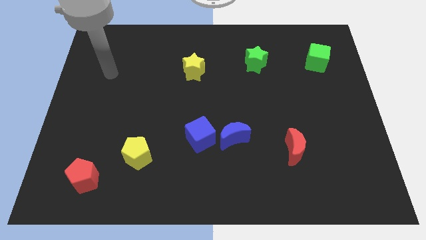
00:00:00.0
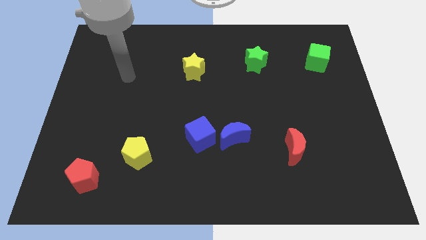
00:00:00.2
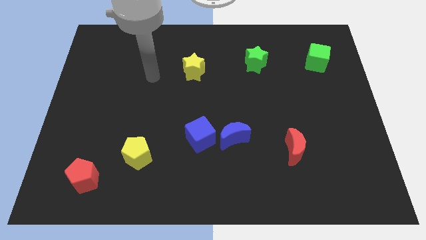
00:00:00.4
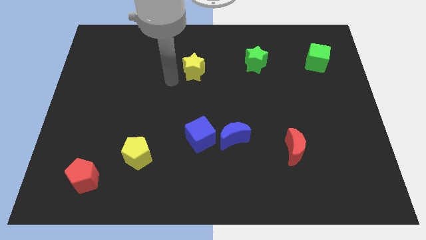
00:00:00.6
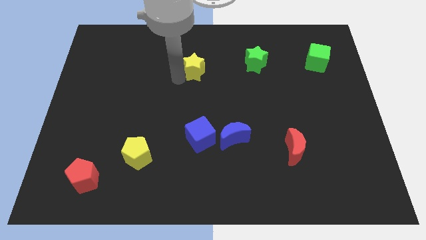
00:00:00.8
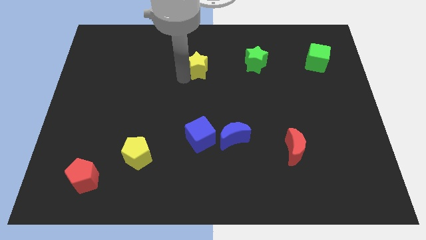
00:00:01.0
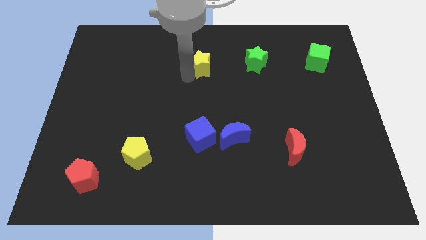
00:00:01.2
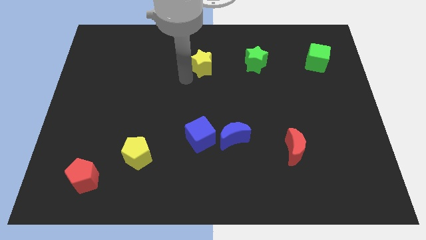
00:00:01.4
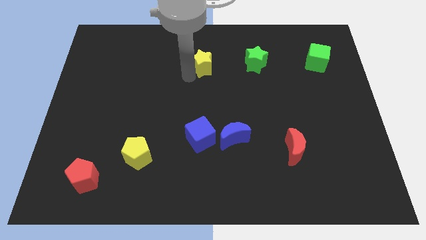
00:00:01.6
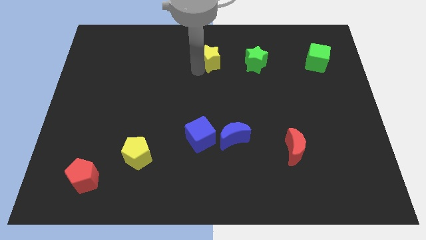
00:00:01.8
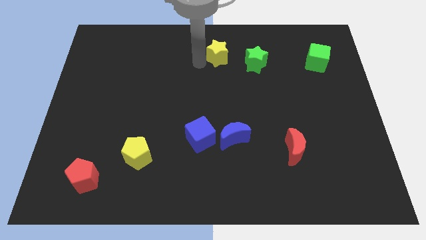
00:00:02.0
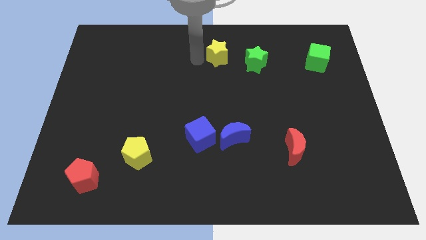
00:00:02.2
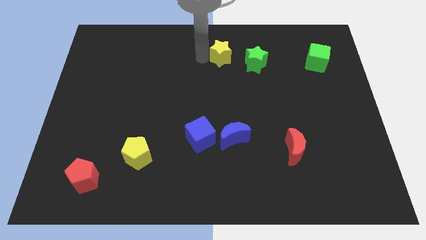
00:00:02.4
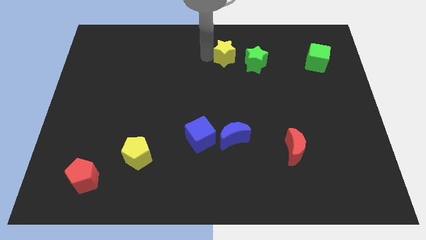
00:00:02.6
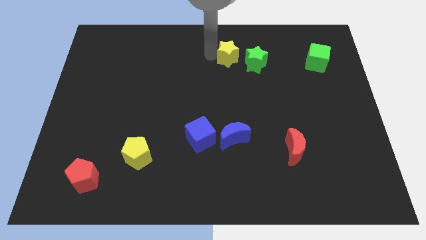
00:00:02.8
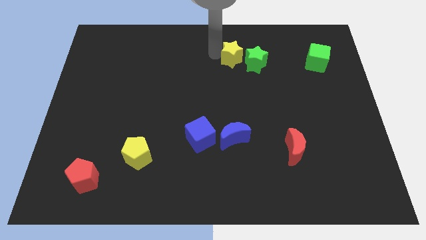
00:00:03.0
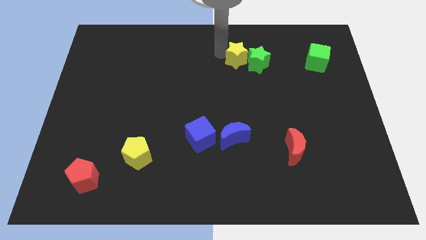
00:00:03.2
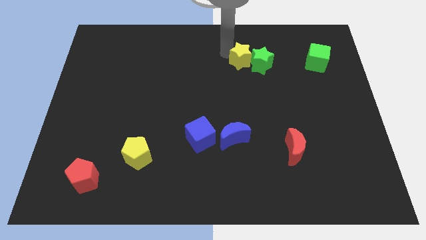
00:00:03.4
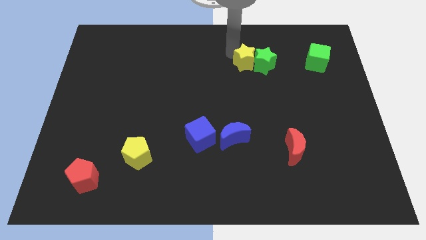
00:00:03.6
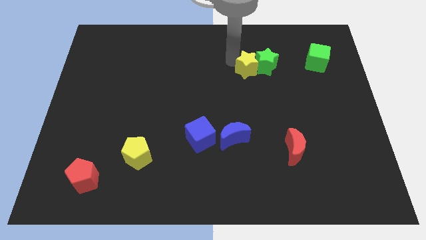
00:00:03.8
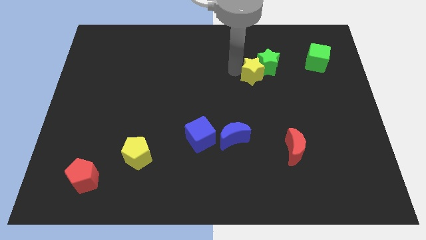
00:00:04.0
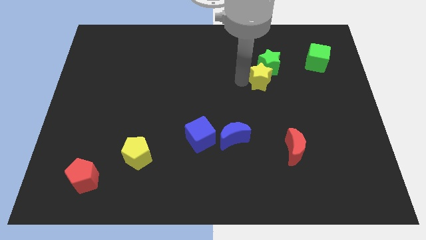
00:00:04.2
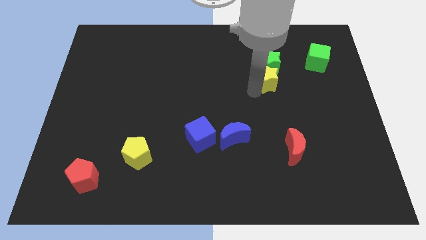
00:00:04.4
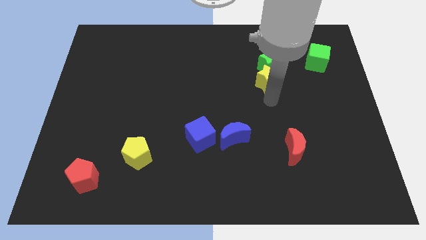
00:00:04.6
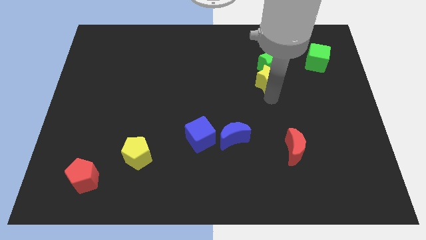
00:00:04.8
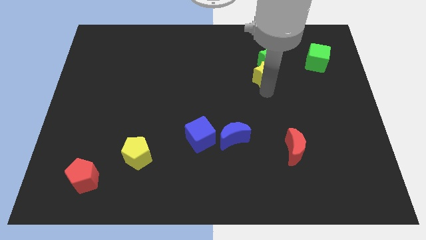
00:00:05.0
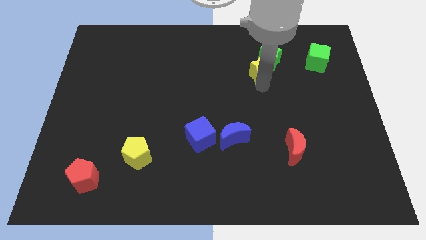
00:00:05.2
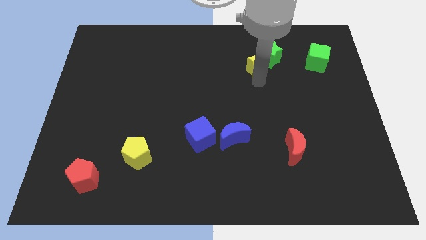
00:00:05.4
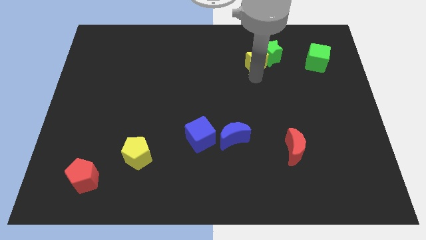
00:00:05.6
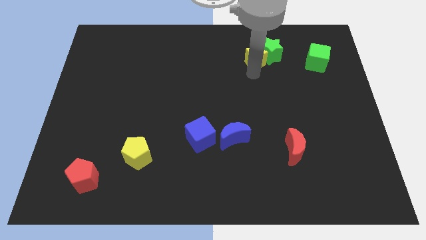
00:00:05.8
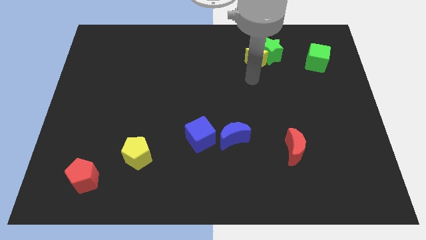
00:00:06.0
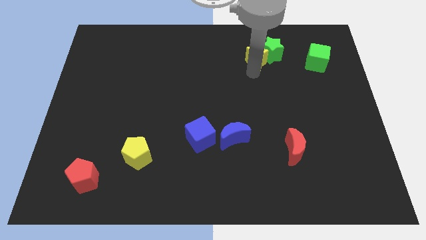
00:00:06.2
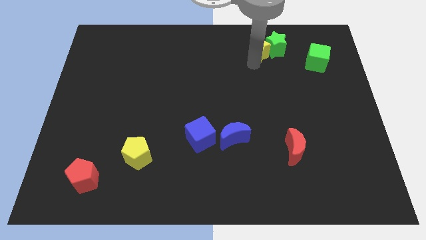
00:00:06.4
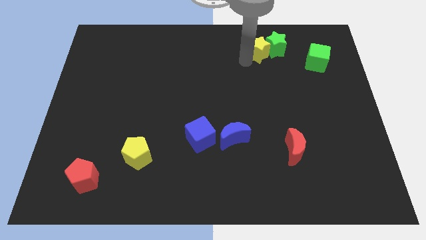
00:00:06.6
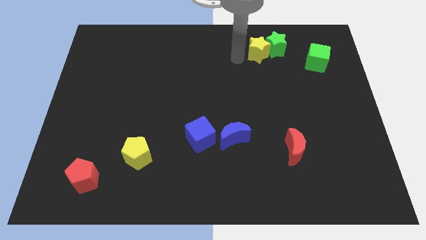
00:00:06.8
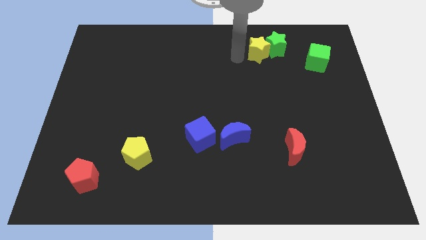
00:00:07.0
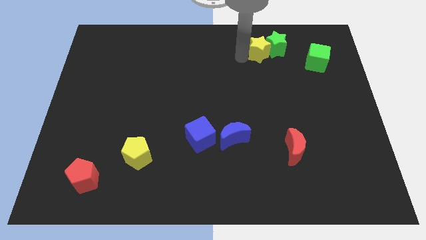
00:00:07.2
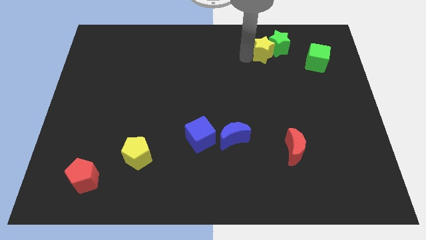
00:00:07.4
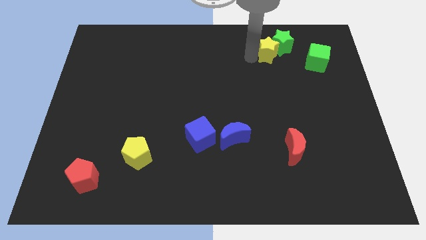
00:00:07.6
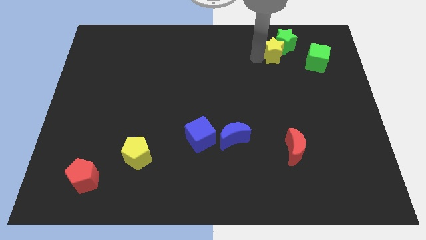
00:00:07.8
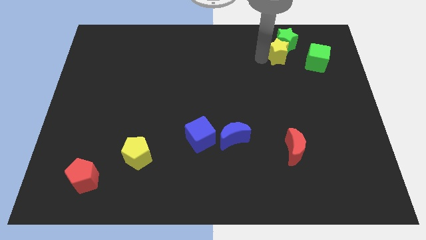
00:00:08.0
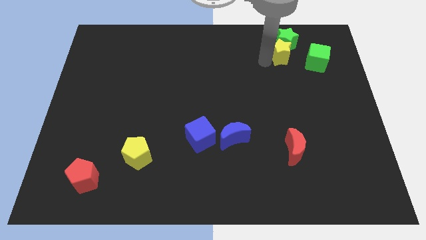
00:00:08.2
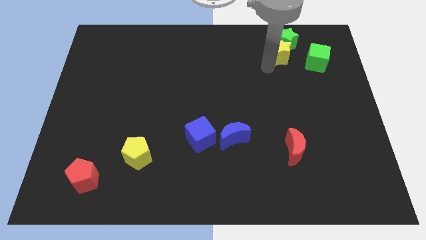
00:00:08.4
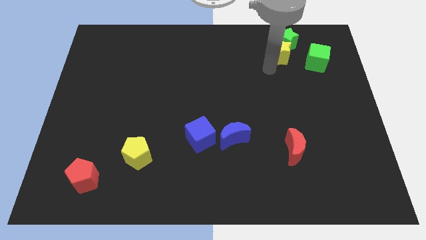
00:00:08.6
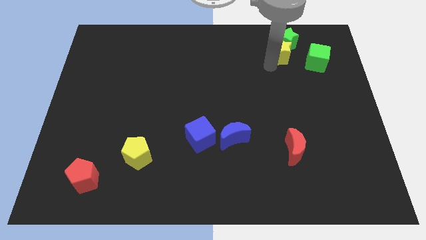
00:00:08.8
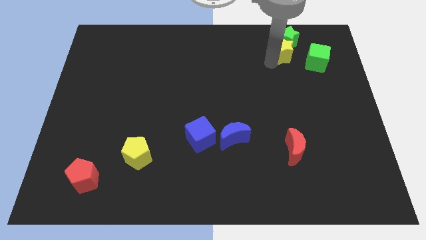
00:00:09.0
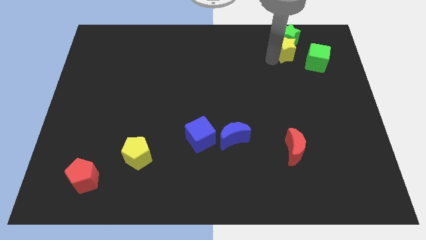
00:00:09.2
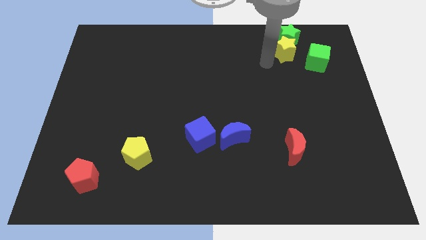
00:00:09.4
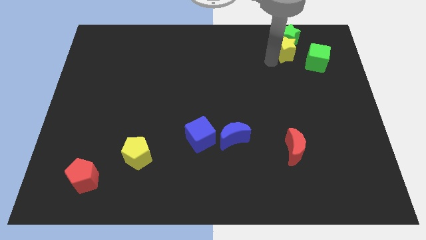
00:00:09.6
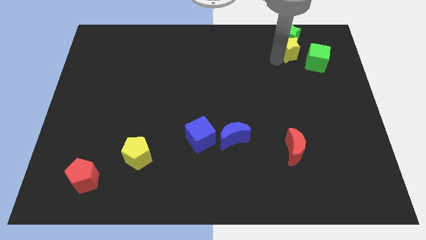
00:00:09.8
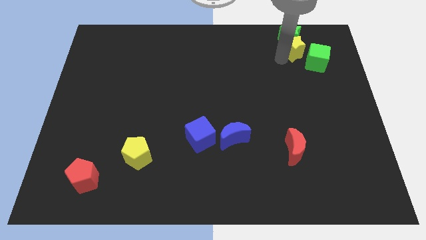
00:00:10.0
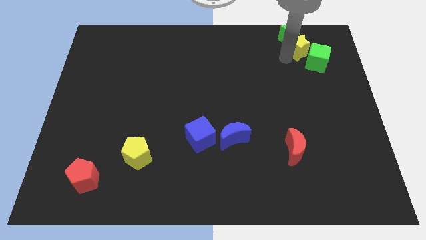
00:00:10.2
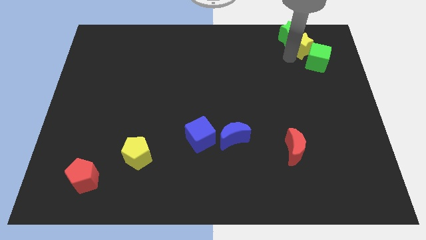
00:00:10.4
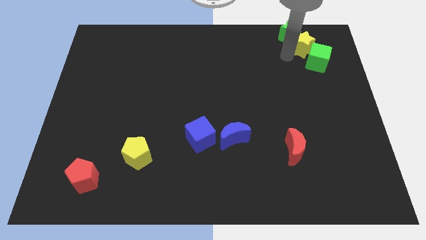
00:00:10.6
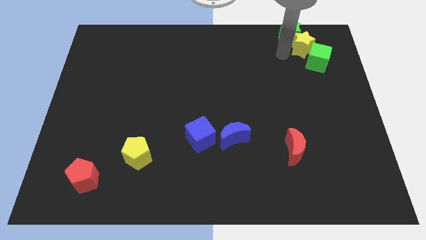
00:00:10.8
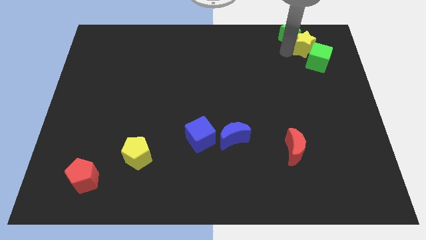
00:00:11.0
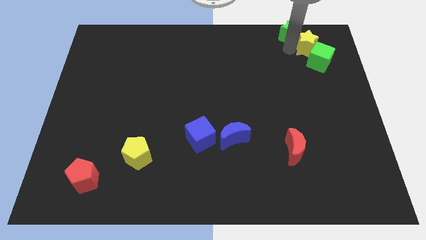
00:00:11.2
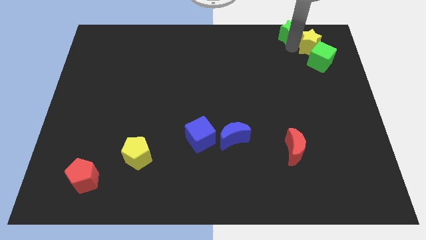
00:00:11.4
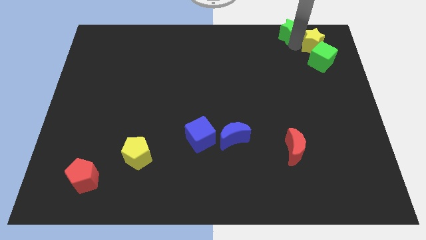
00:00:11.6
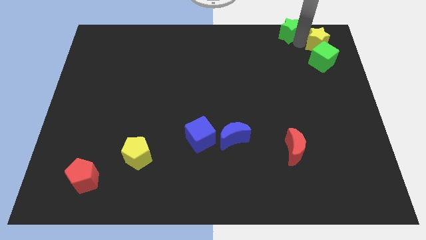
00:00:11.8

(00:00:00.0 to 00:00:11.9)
put the yellow star to the upper right corner
